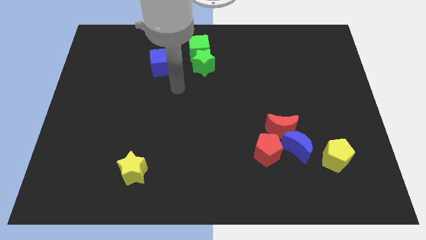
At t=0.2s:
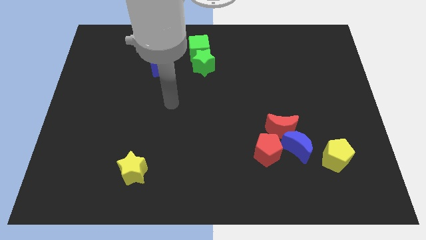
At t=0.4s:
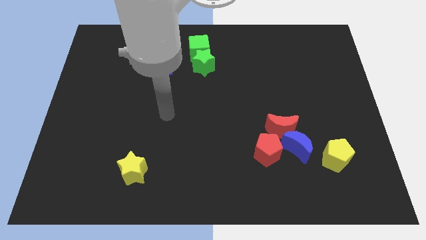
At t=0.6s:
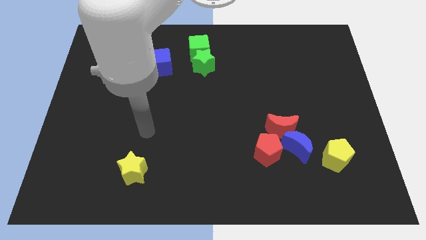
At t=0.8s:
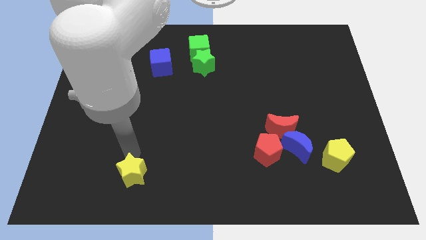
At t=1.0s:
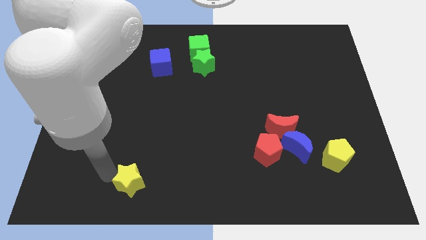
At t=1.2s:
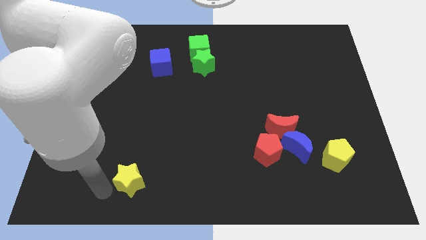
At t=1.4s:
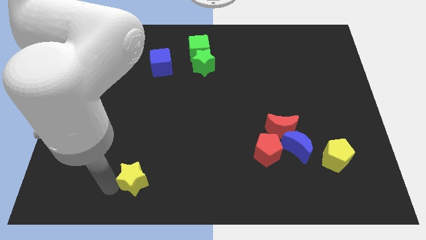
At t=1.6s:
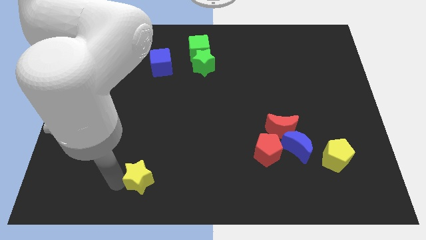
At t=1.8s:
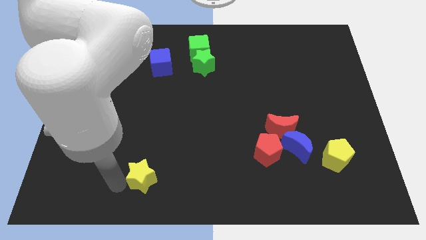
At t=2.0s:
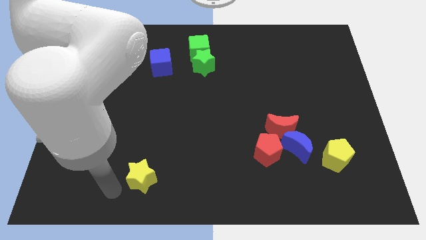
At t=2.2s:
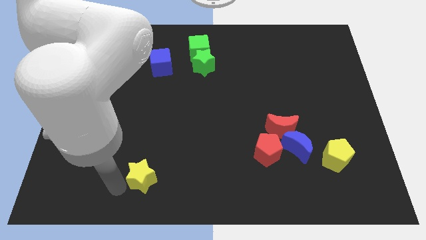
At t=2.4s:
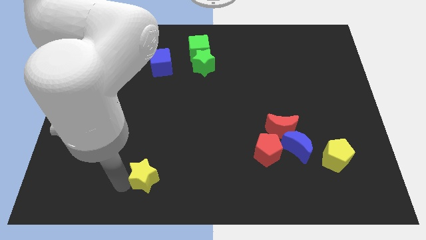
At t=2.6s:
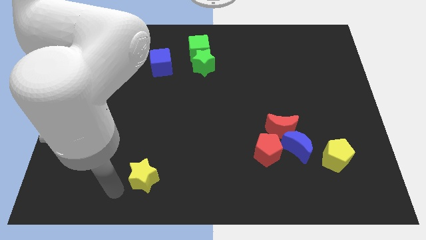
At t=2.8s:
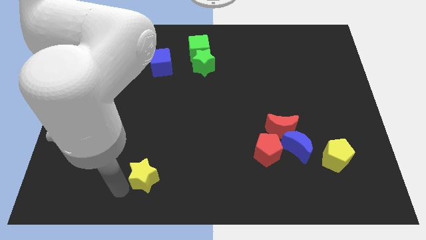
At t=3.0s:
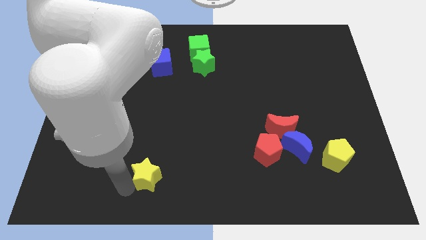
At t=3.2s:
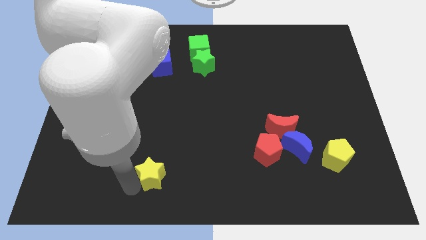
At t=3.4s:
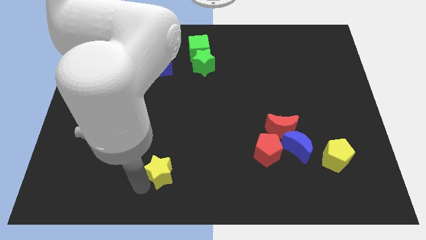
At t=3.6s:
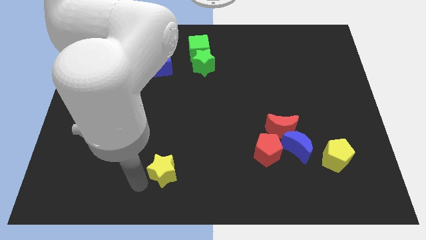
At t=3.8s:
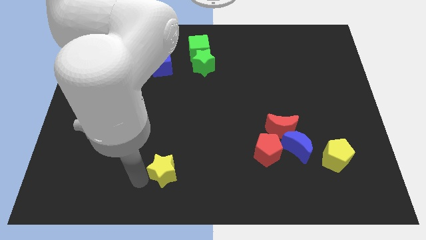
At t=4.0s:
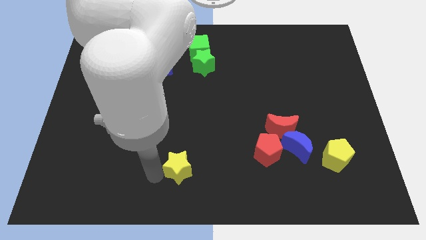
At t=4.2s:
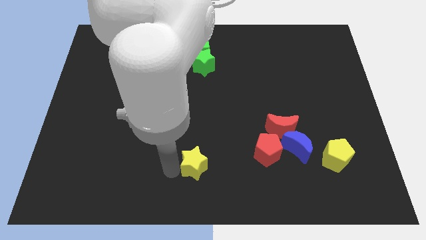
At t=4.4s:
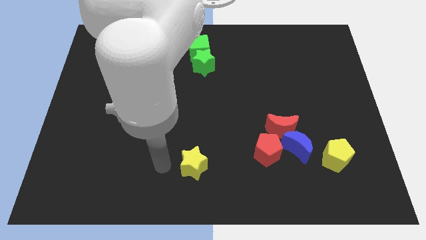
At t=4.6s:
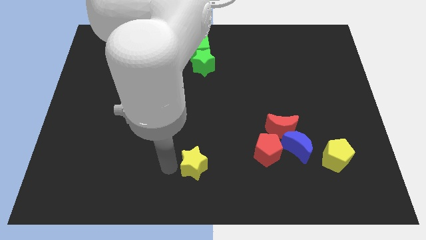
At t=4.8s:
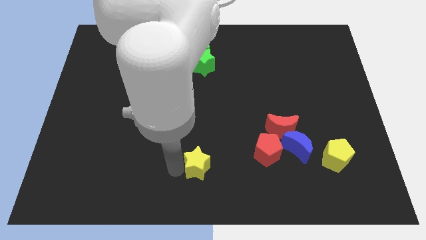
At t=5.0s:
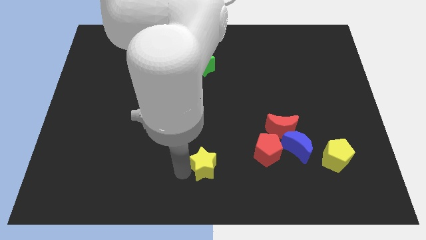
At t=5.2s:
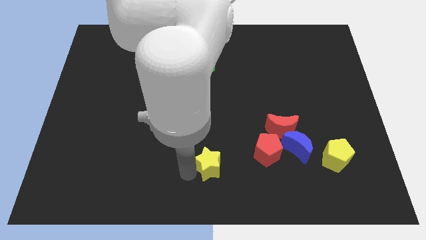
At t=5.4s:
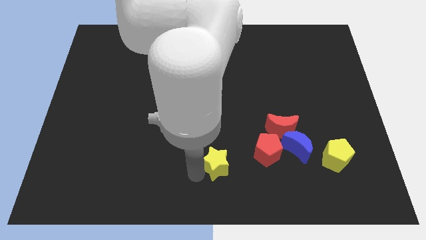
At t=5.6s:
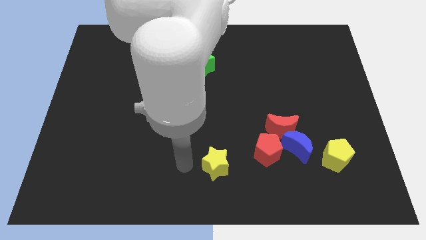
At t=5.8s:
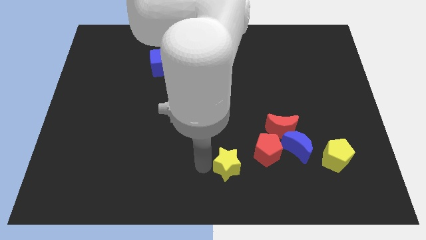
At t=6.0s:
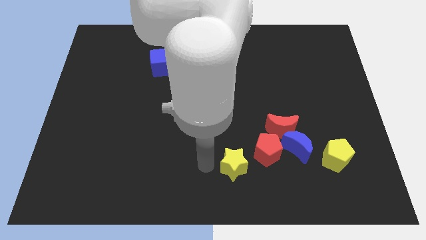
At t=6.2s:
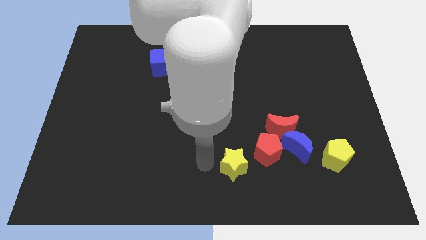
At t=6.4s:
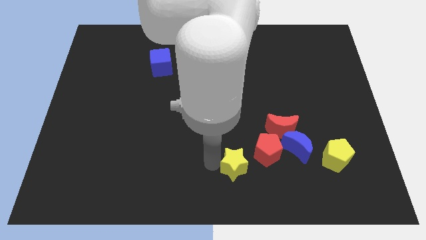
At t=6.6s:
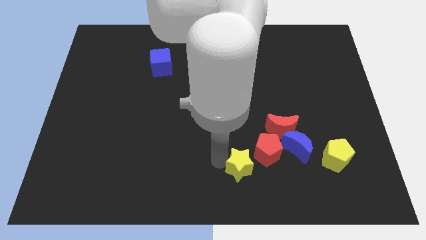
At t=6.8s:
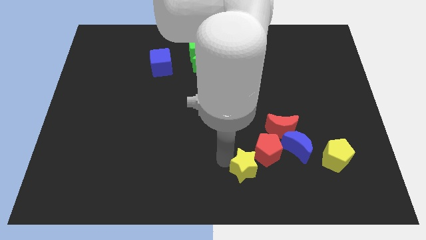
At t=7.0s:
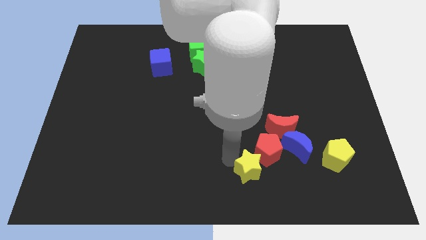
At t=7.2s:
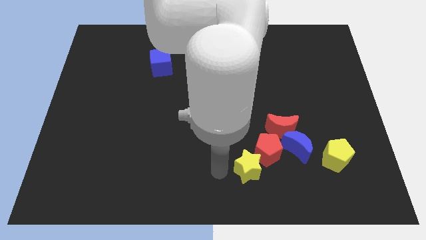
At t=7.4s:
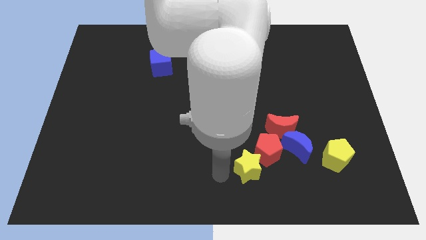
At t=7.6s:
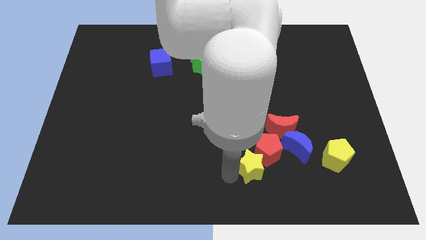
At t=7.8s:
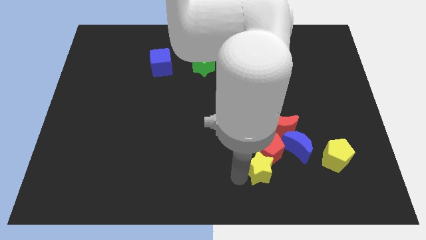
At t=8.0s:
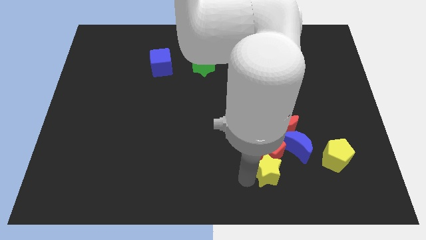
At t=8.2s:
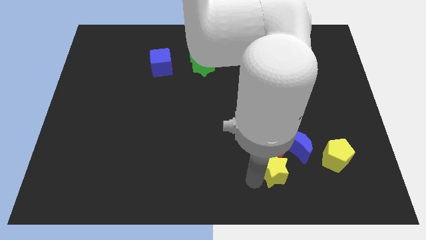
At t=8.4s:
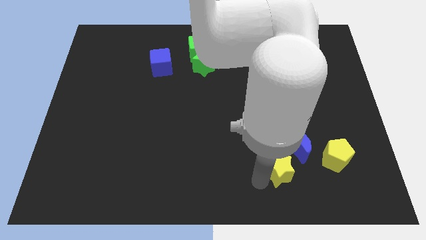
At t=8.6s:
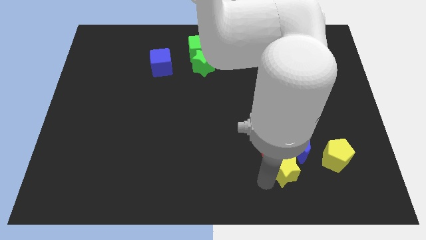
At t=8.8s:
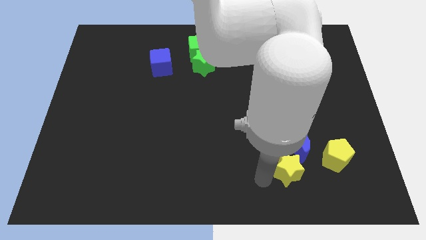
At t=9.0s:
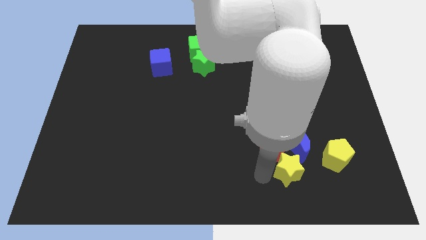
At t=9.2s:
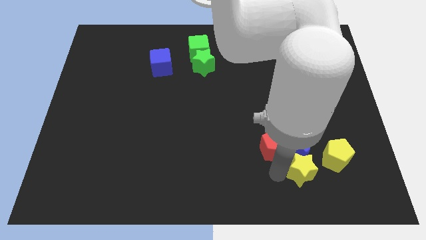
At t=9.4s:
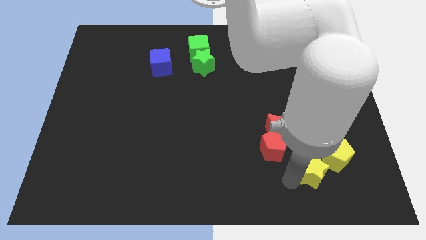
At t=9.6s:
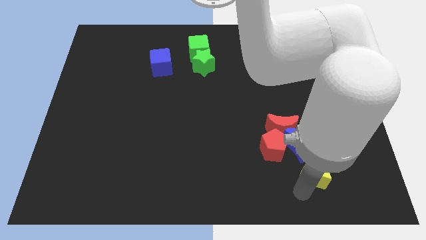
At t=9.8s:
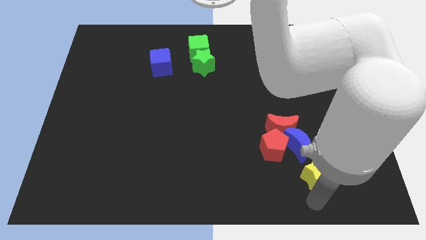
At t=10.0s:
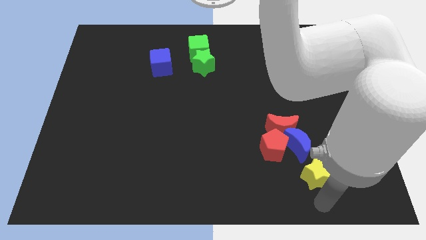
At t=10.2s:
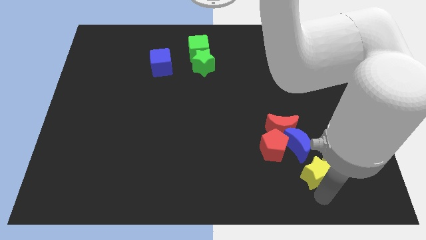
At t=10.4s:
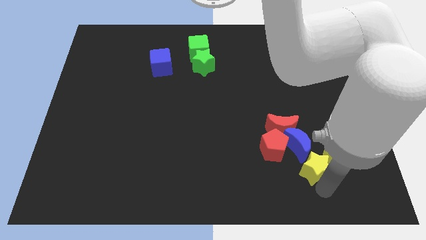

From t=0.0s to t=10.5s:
push the yellow star to the bottom right of the red moon

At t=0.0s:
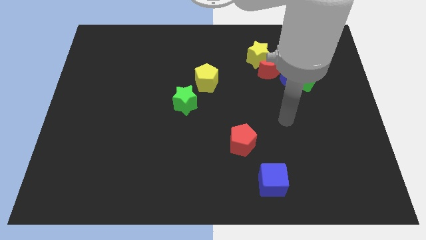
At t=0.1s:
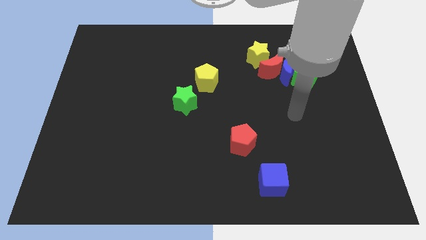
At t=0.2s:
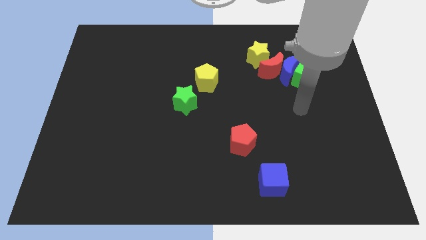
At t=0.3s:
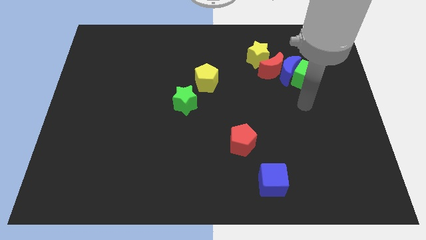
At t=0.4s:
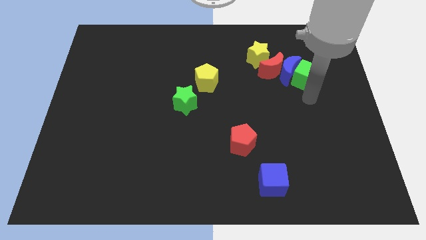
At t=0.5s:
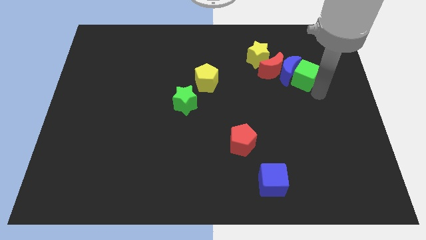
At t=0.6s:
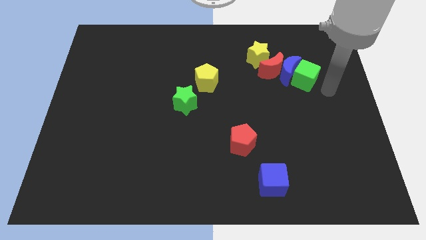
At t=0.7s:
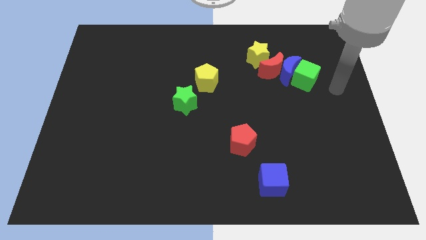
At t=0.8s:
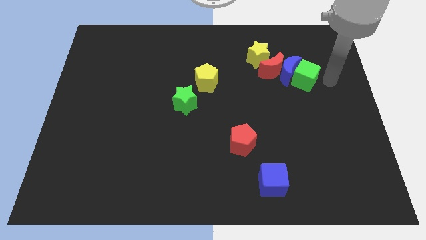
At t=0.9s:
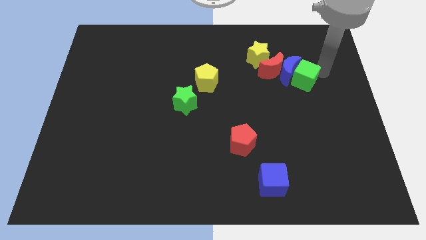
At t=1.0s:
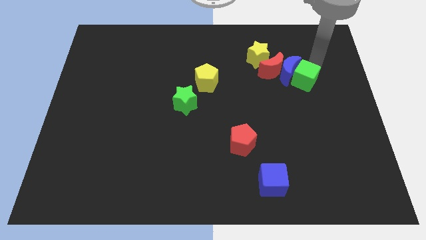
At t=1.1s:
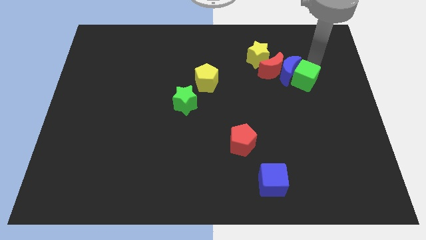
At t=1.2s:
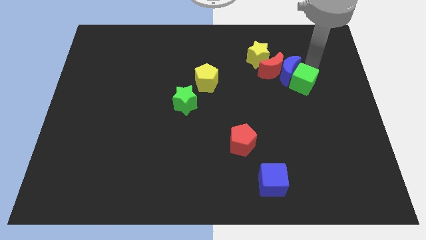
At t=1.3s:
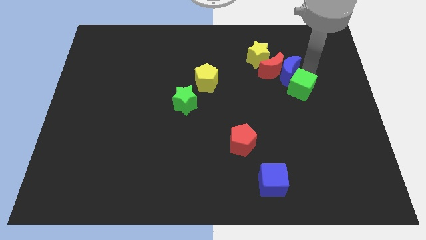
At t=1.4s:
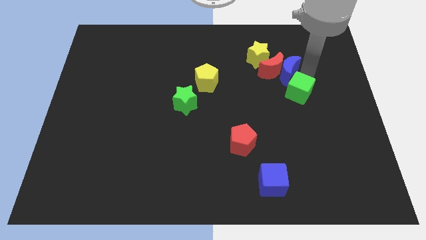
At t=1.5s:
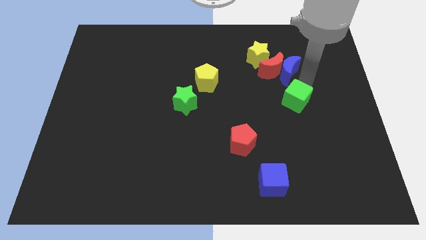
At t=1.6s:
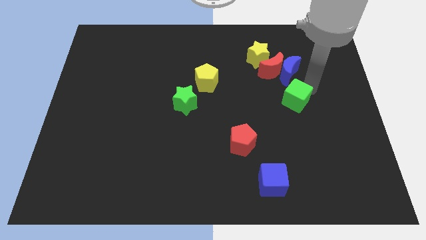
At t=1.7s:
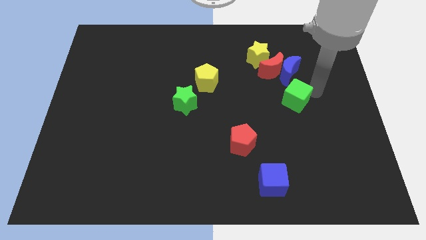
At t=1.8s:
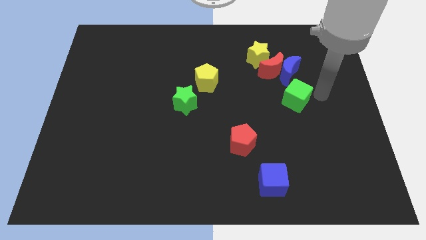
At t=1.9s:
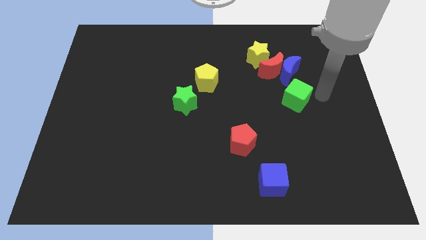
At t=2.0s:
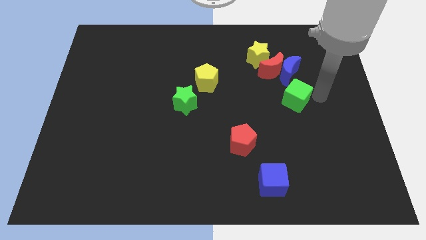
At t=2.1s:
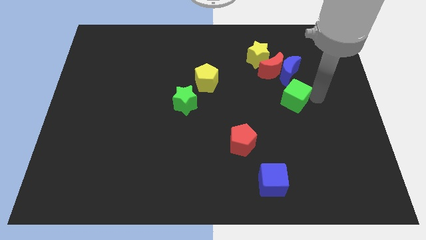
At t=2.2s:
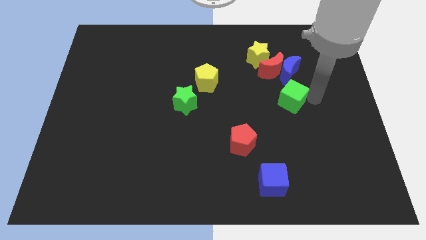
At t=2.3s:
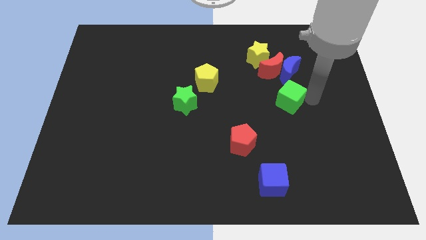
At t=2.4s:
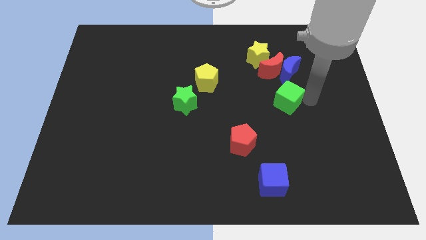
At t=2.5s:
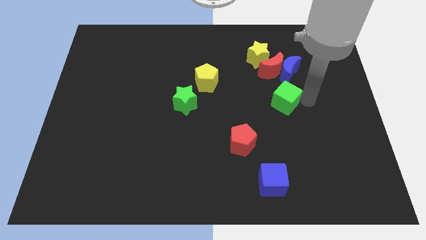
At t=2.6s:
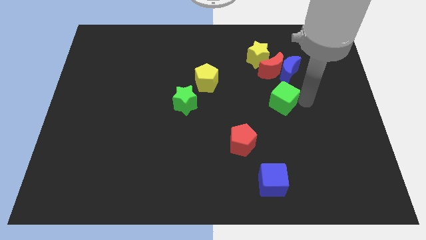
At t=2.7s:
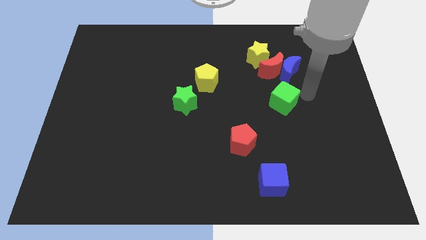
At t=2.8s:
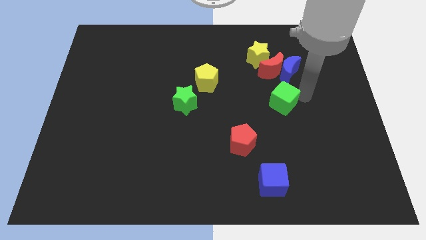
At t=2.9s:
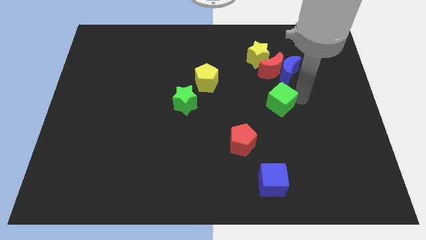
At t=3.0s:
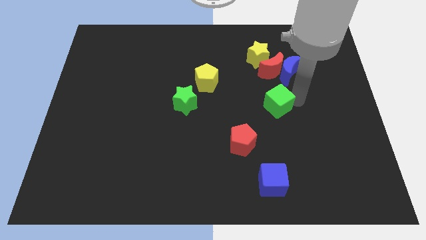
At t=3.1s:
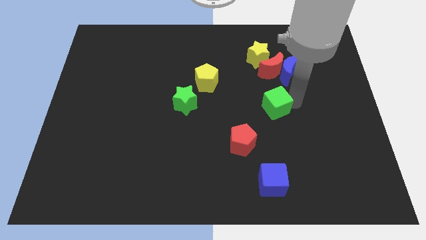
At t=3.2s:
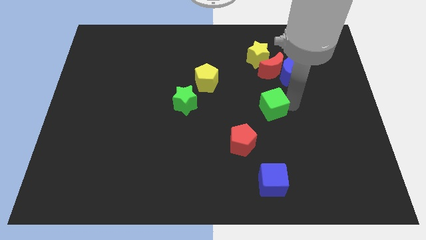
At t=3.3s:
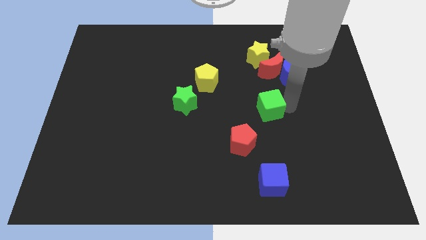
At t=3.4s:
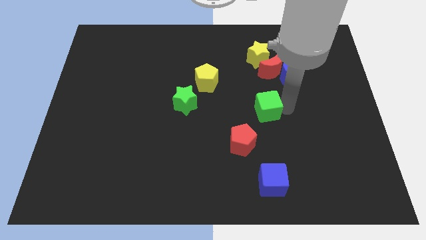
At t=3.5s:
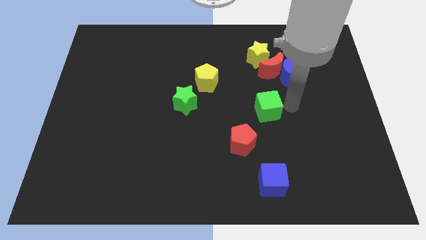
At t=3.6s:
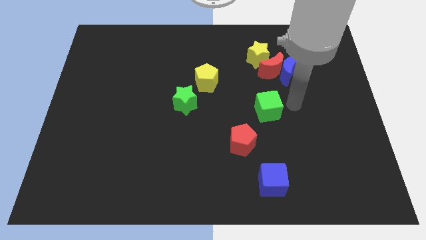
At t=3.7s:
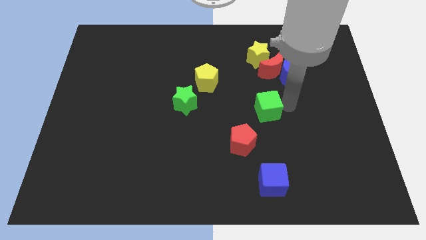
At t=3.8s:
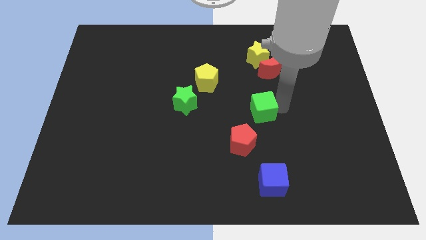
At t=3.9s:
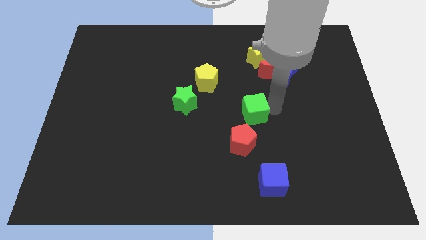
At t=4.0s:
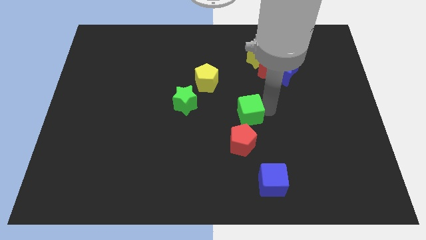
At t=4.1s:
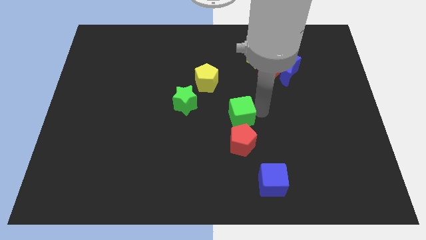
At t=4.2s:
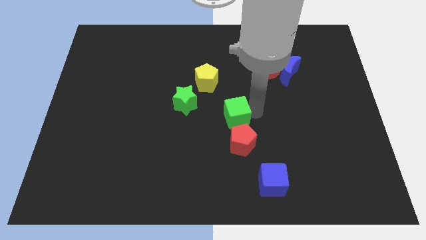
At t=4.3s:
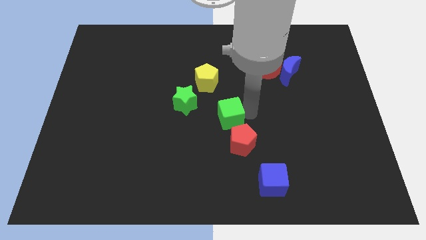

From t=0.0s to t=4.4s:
put the green cube to the bottom right of the green star
